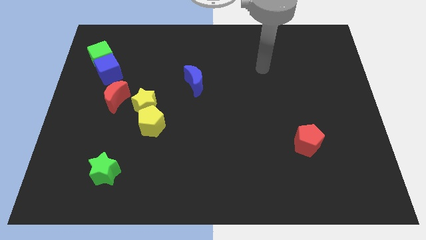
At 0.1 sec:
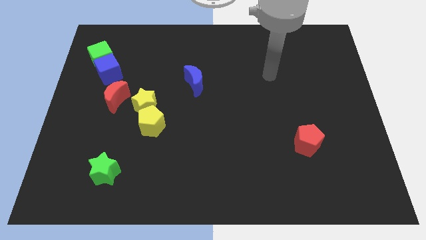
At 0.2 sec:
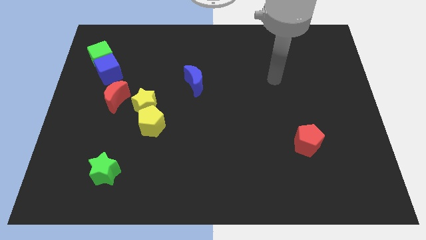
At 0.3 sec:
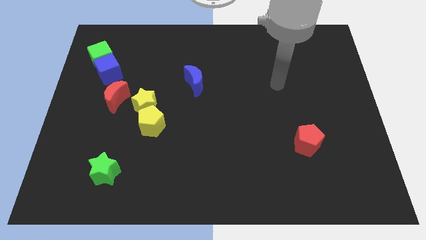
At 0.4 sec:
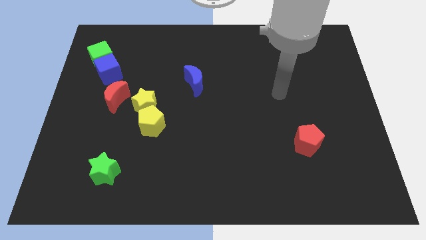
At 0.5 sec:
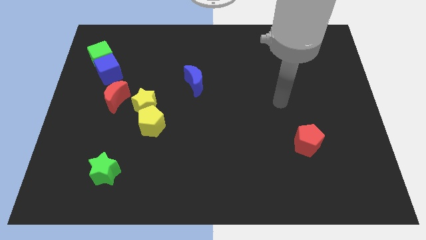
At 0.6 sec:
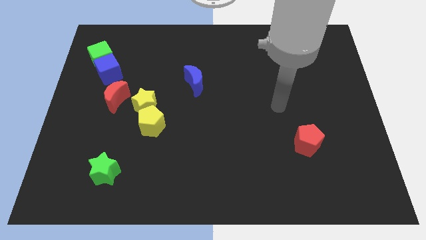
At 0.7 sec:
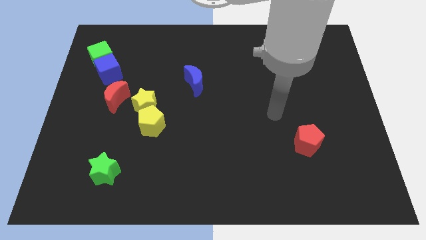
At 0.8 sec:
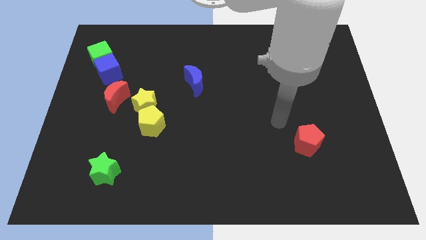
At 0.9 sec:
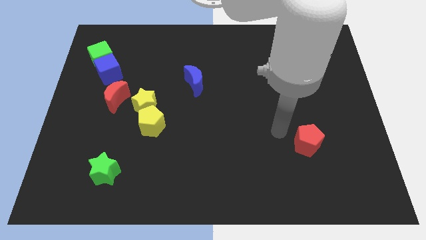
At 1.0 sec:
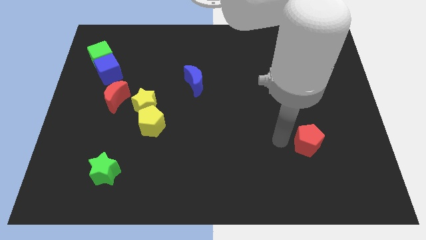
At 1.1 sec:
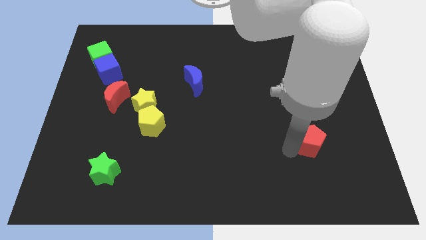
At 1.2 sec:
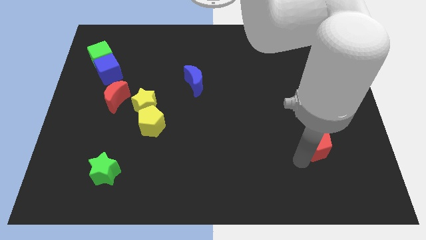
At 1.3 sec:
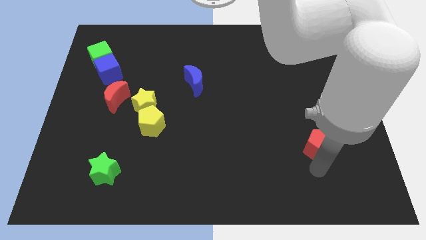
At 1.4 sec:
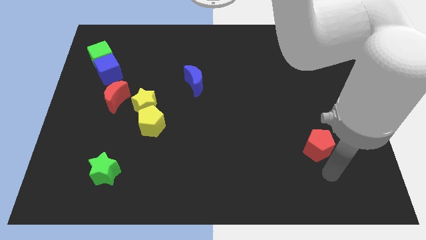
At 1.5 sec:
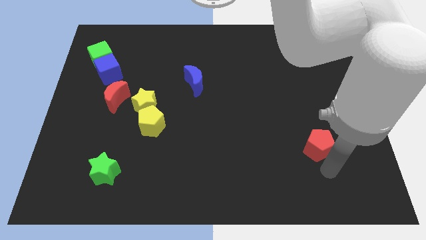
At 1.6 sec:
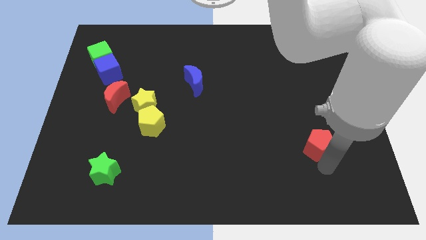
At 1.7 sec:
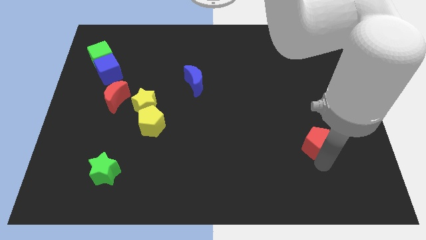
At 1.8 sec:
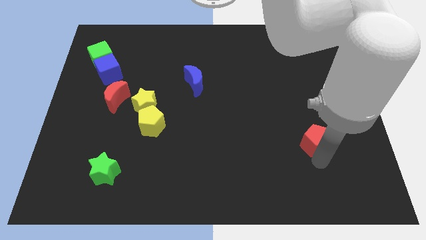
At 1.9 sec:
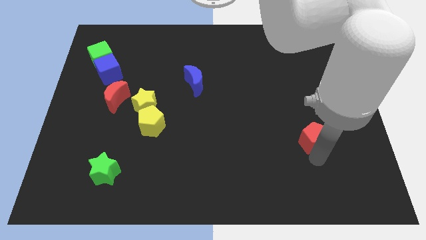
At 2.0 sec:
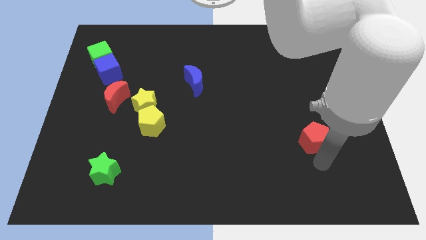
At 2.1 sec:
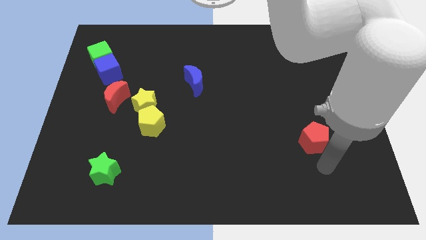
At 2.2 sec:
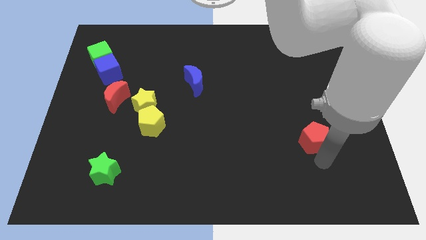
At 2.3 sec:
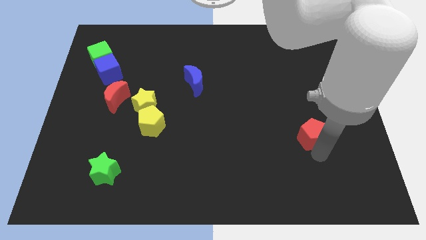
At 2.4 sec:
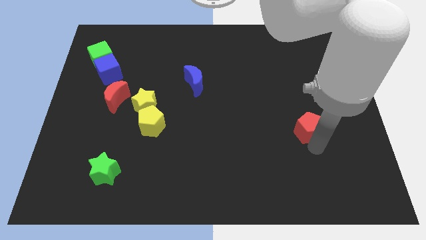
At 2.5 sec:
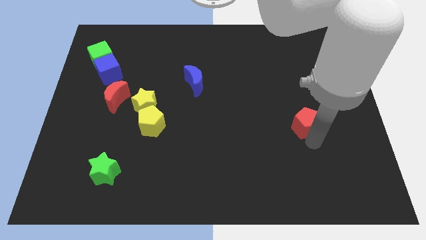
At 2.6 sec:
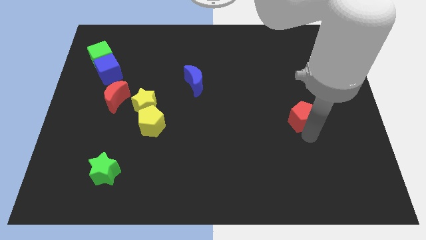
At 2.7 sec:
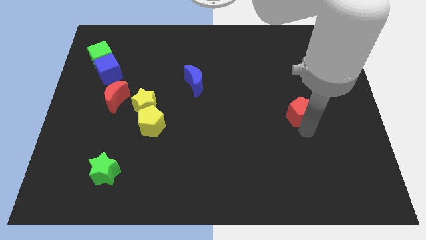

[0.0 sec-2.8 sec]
slightly slide the red pentagon upwards

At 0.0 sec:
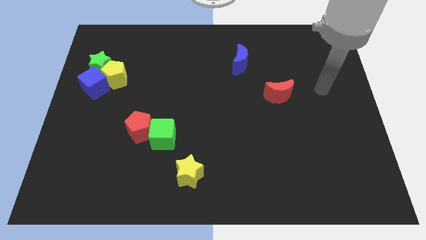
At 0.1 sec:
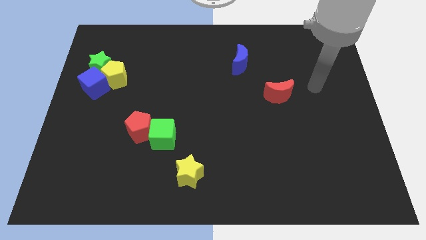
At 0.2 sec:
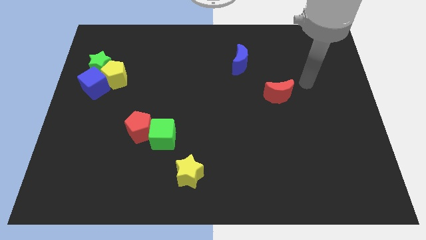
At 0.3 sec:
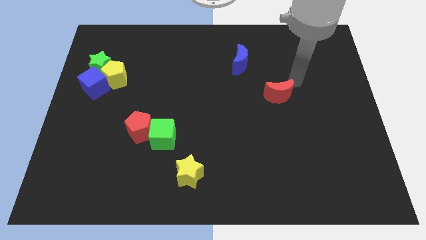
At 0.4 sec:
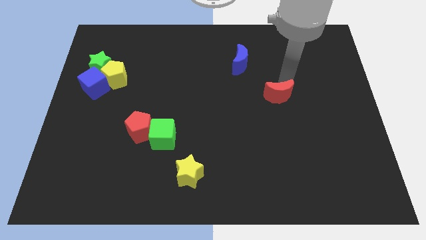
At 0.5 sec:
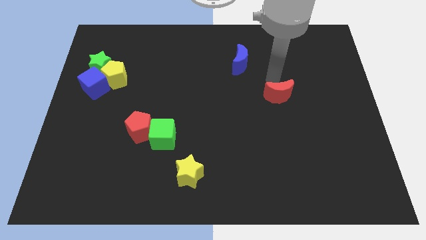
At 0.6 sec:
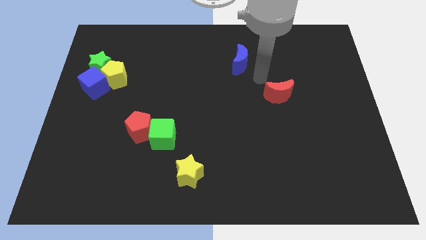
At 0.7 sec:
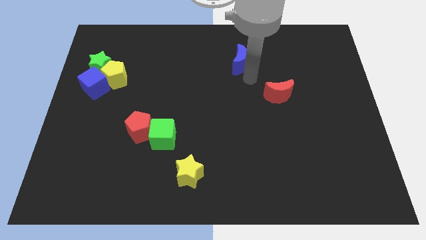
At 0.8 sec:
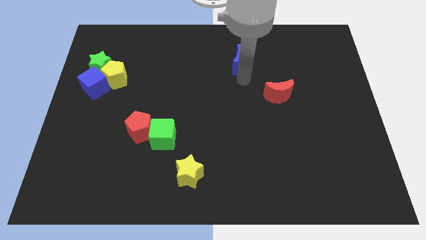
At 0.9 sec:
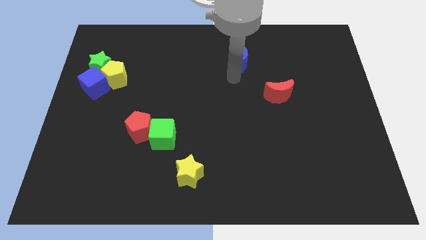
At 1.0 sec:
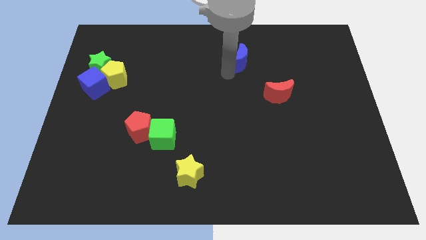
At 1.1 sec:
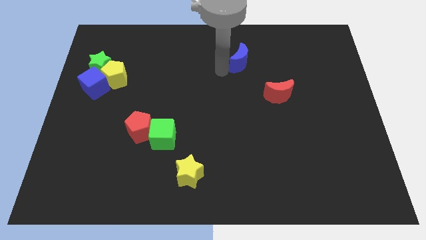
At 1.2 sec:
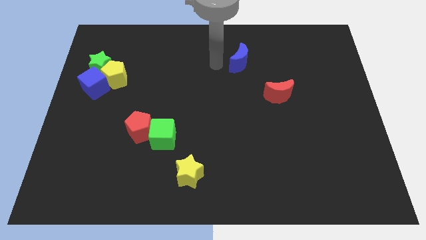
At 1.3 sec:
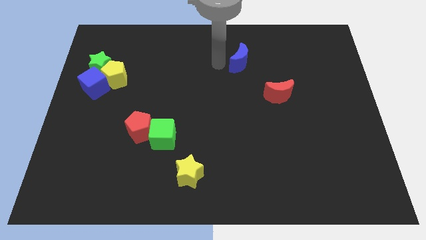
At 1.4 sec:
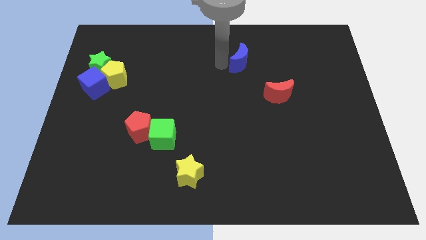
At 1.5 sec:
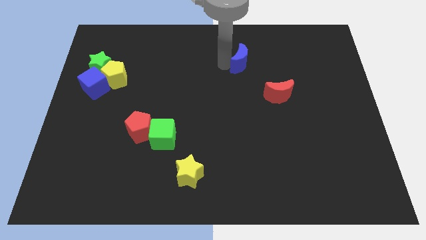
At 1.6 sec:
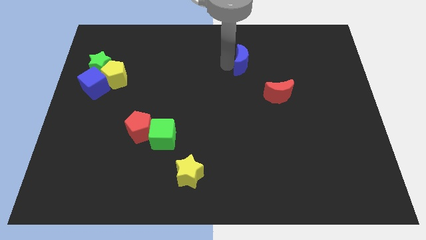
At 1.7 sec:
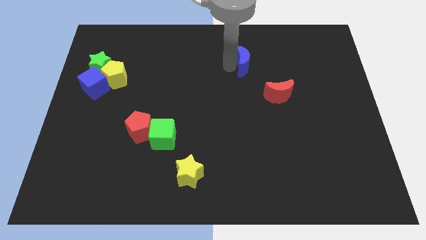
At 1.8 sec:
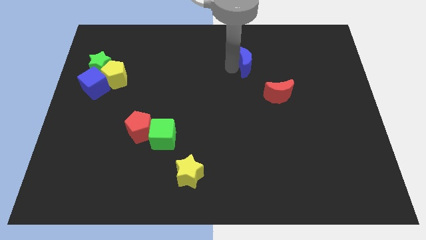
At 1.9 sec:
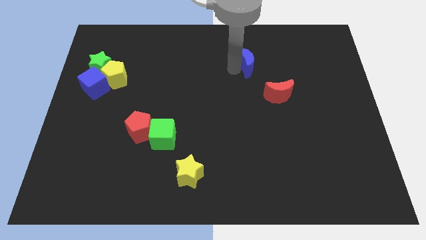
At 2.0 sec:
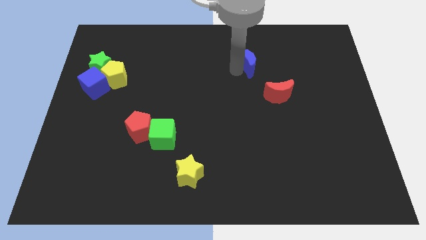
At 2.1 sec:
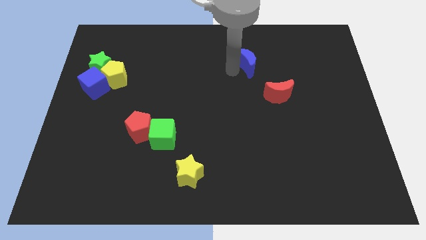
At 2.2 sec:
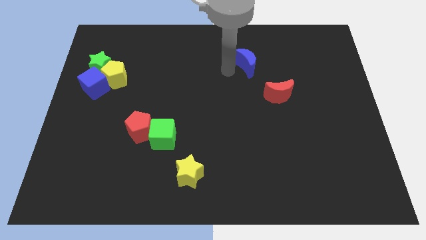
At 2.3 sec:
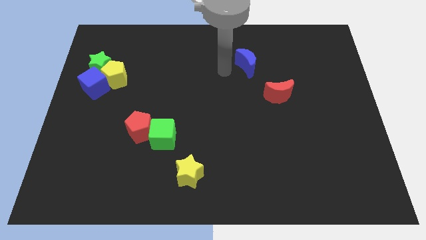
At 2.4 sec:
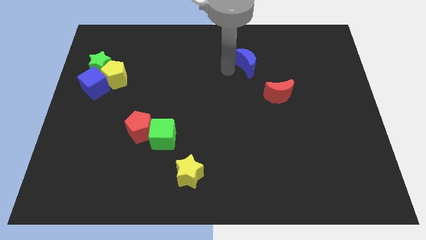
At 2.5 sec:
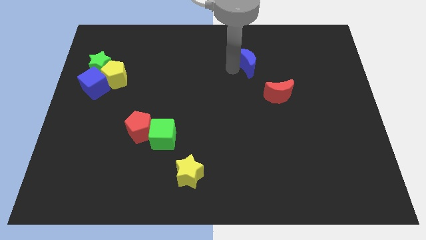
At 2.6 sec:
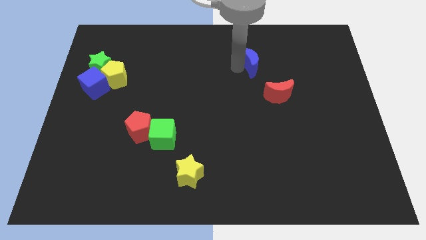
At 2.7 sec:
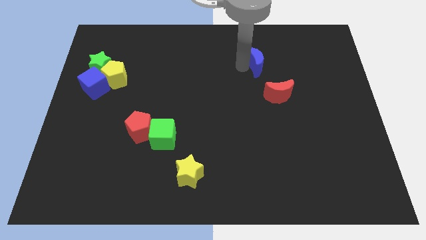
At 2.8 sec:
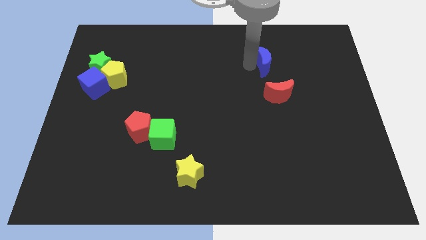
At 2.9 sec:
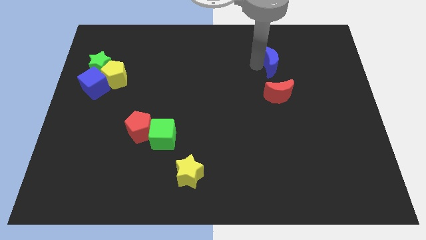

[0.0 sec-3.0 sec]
slide the blue moon slightly to the right

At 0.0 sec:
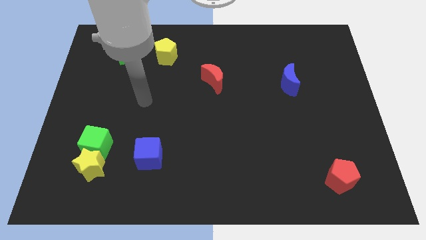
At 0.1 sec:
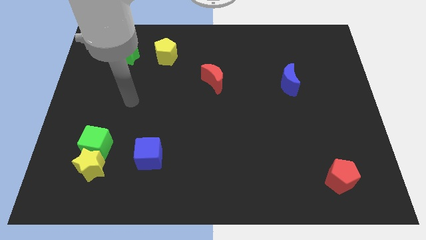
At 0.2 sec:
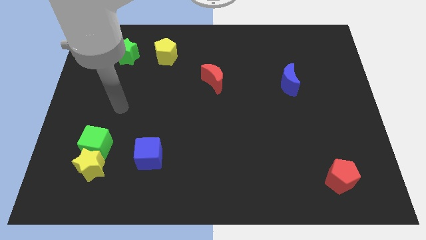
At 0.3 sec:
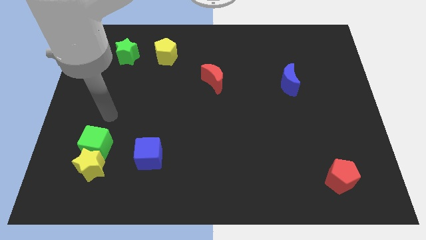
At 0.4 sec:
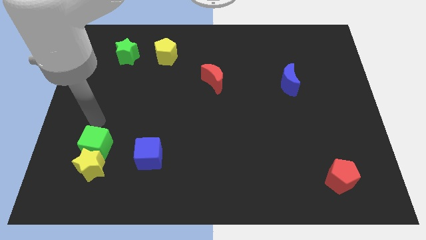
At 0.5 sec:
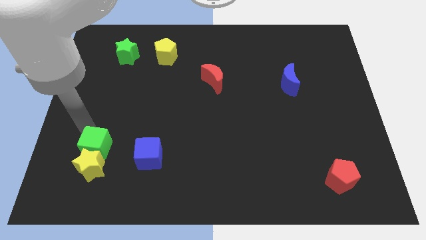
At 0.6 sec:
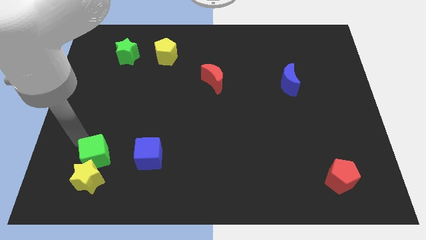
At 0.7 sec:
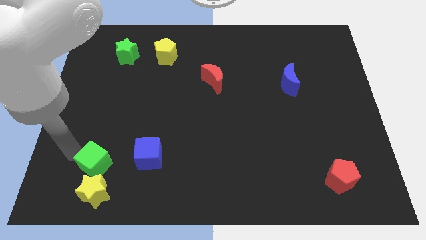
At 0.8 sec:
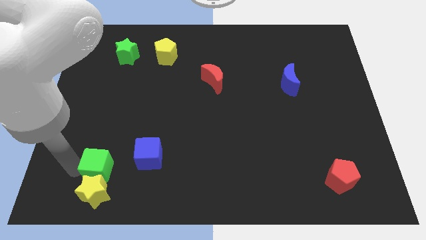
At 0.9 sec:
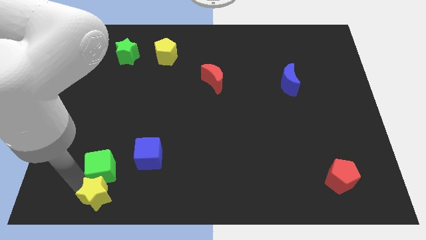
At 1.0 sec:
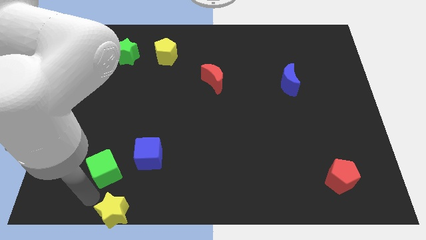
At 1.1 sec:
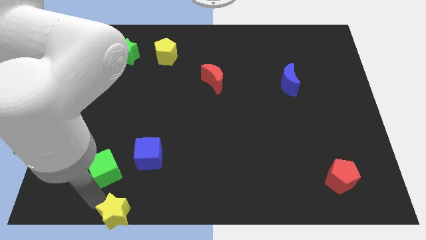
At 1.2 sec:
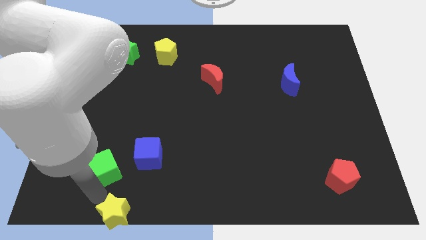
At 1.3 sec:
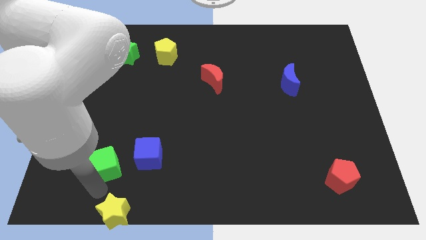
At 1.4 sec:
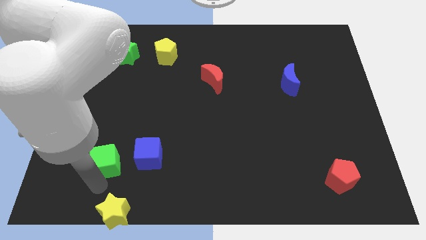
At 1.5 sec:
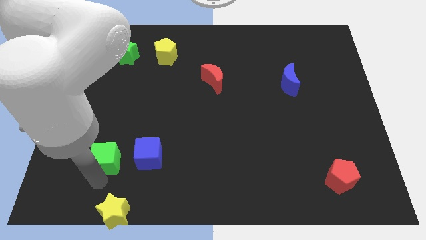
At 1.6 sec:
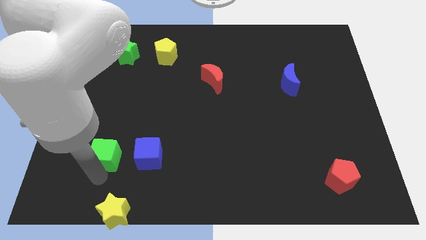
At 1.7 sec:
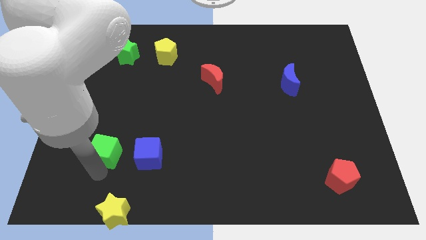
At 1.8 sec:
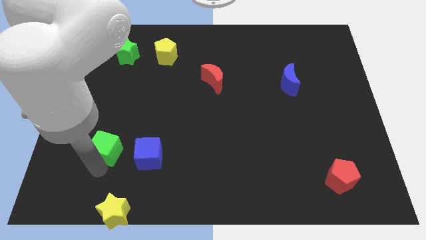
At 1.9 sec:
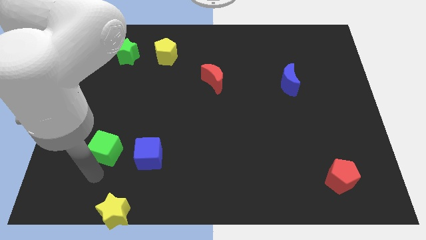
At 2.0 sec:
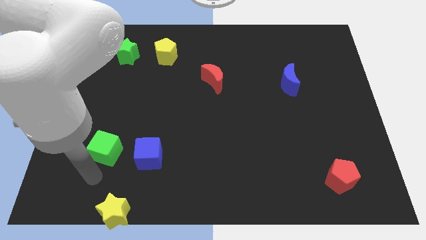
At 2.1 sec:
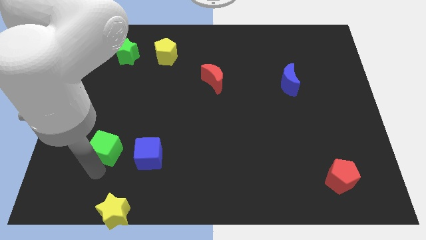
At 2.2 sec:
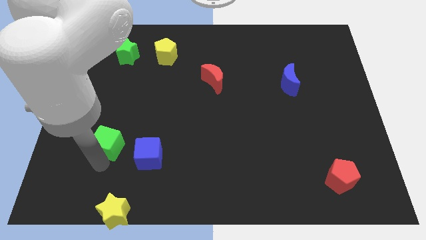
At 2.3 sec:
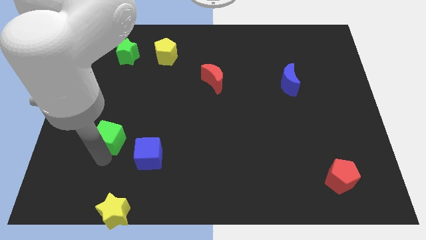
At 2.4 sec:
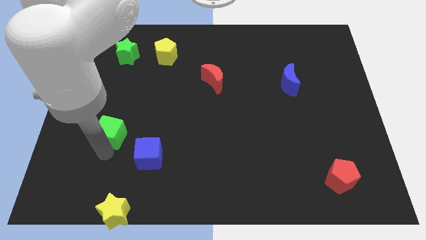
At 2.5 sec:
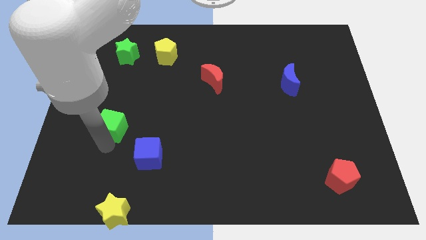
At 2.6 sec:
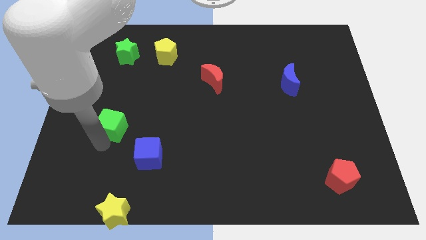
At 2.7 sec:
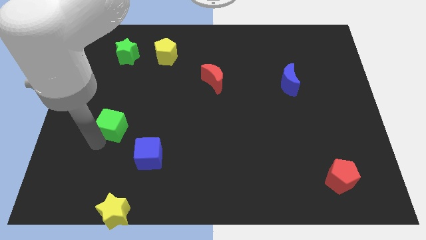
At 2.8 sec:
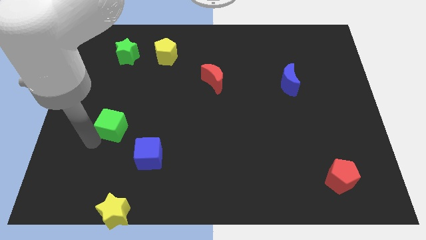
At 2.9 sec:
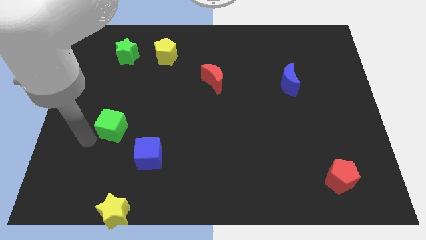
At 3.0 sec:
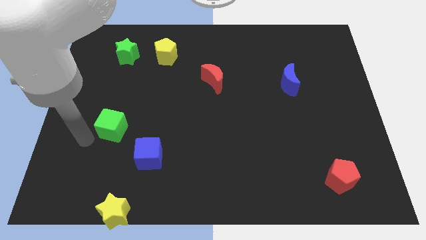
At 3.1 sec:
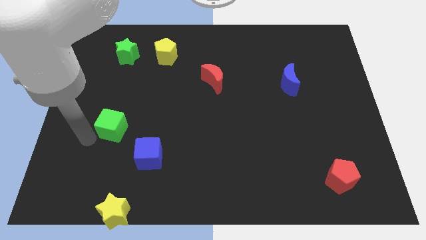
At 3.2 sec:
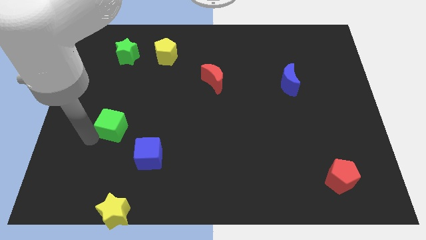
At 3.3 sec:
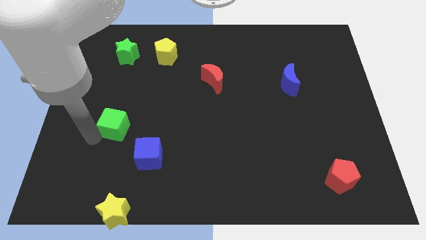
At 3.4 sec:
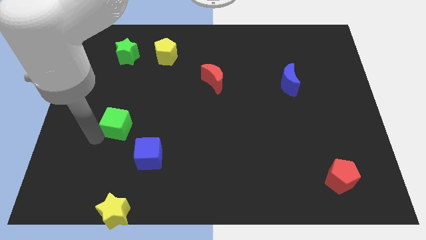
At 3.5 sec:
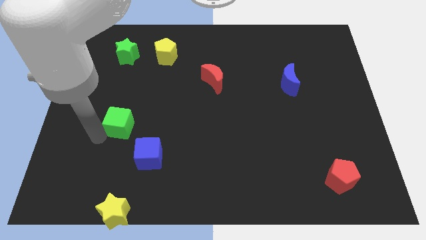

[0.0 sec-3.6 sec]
move the green cube a bit upwards and right diagonally
